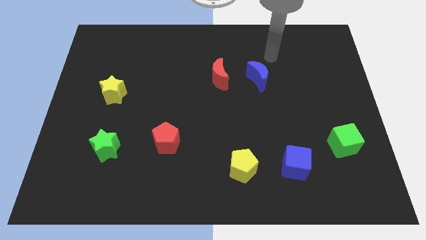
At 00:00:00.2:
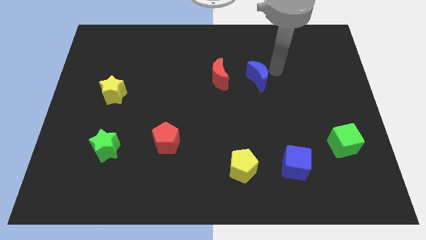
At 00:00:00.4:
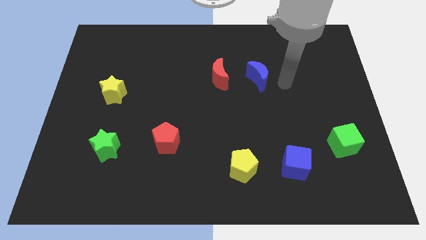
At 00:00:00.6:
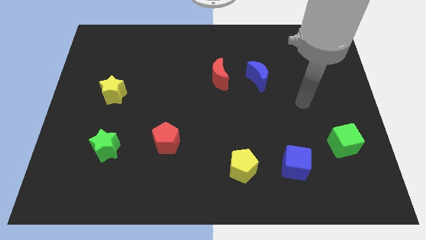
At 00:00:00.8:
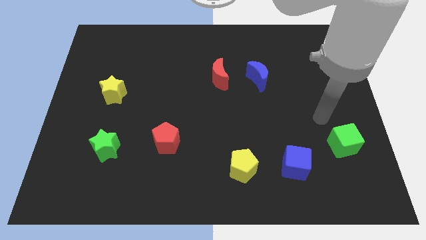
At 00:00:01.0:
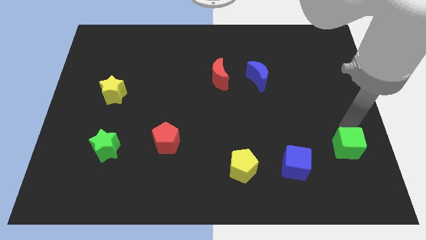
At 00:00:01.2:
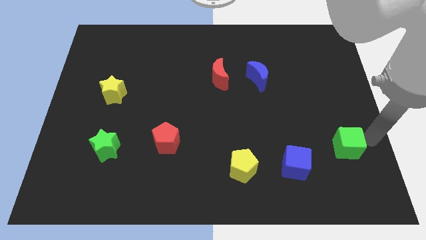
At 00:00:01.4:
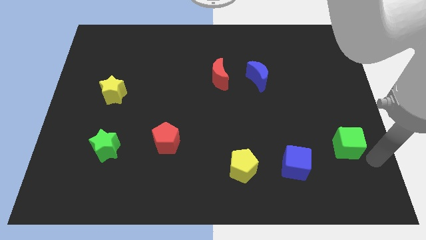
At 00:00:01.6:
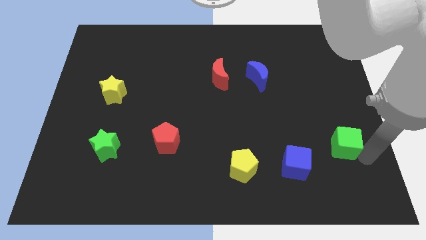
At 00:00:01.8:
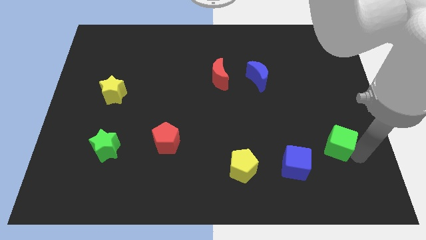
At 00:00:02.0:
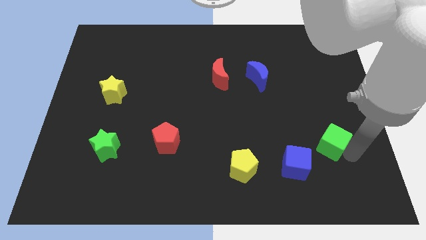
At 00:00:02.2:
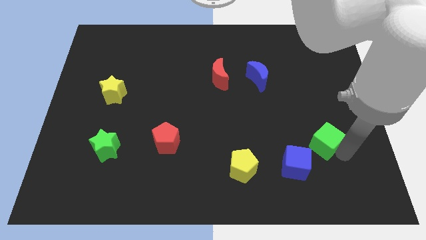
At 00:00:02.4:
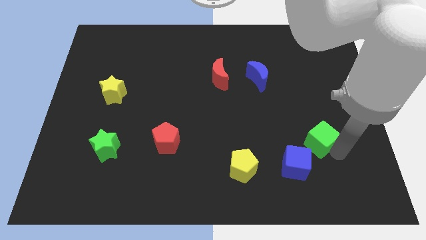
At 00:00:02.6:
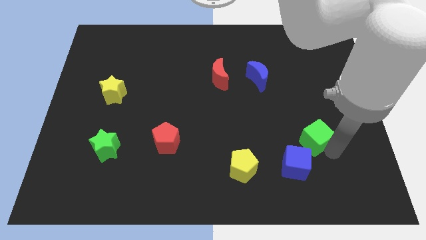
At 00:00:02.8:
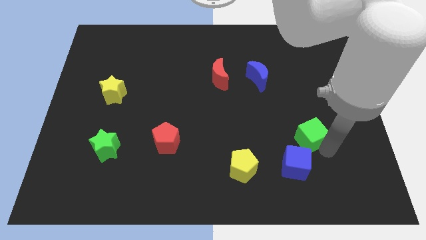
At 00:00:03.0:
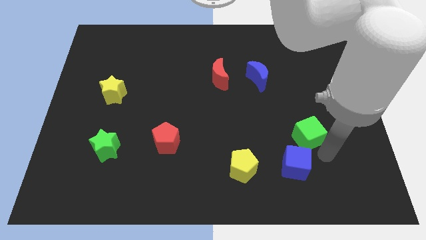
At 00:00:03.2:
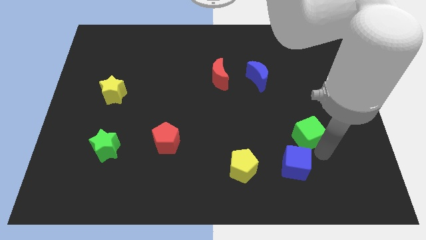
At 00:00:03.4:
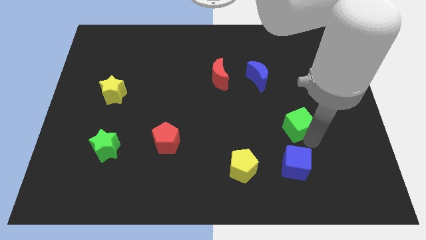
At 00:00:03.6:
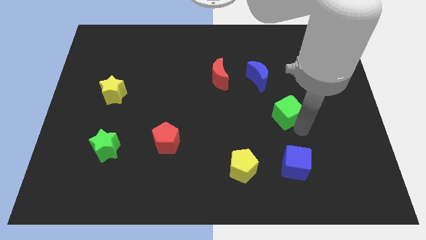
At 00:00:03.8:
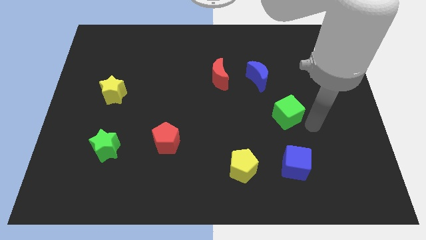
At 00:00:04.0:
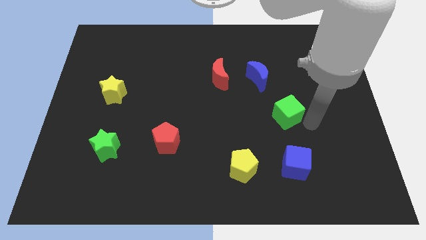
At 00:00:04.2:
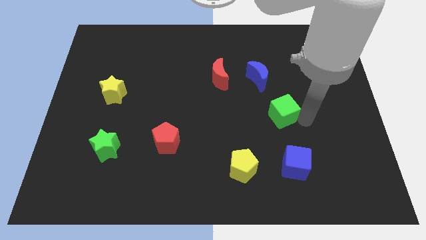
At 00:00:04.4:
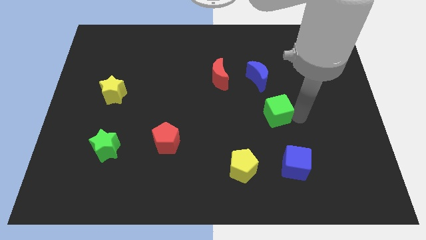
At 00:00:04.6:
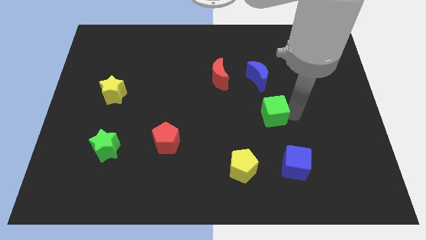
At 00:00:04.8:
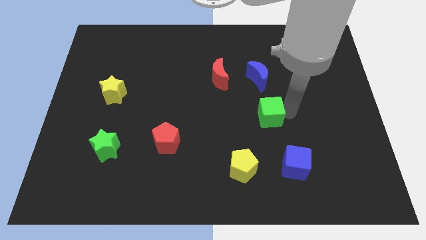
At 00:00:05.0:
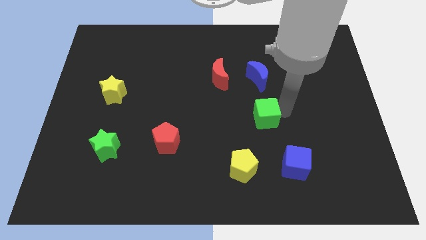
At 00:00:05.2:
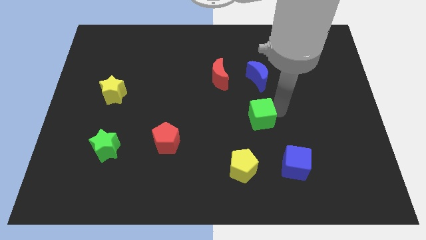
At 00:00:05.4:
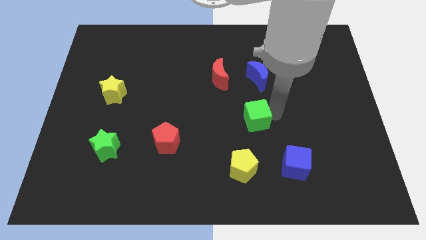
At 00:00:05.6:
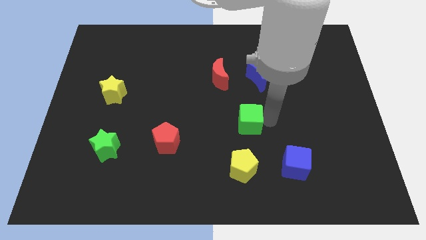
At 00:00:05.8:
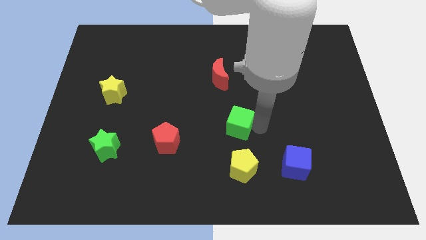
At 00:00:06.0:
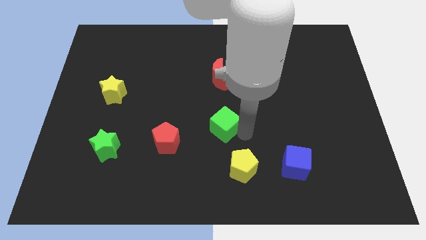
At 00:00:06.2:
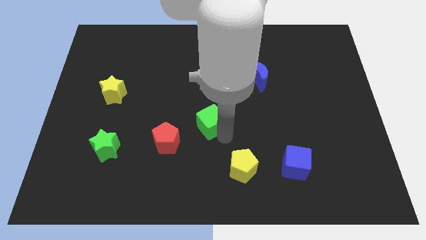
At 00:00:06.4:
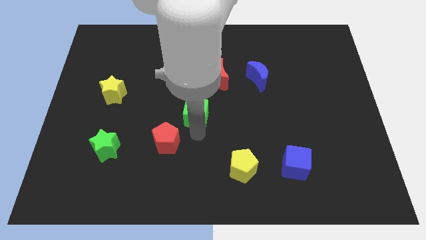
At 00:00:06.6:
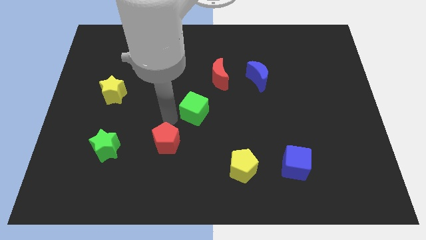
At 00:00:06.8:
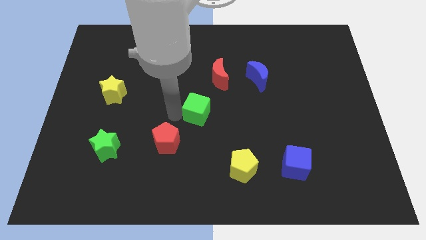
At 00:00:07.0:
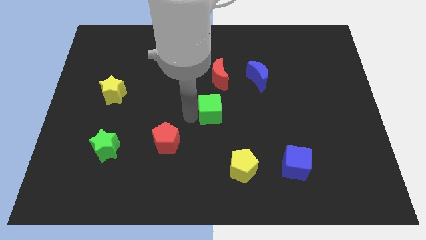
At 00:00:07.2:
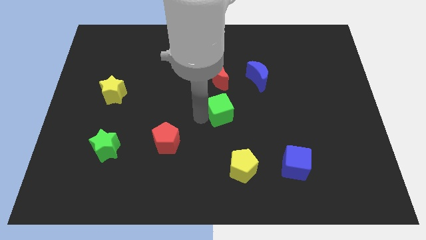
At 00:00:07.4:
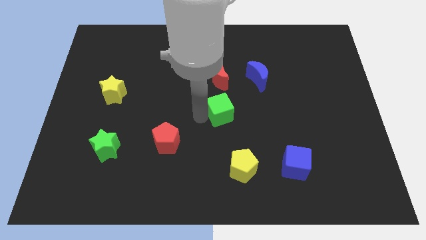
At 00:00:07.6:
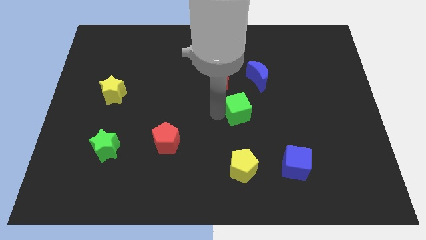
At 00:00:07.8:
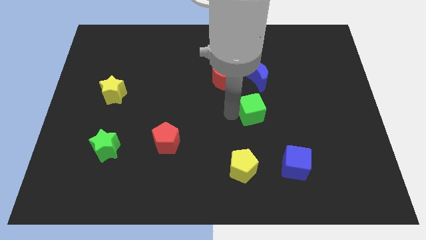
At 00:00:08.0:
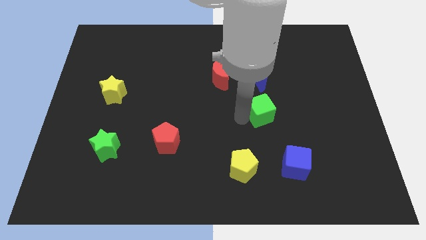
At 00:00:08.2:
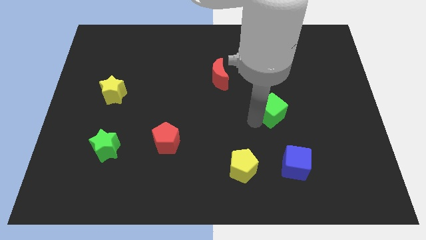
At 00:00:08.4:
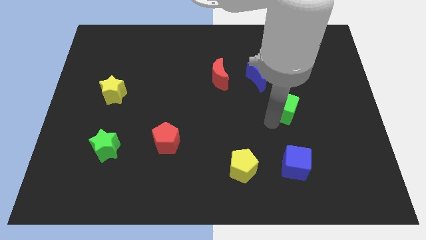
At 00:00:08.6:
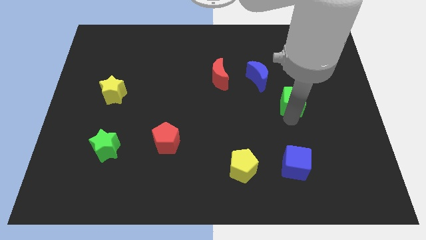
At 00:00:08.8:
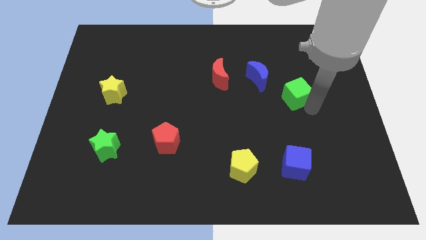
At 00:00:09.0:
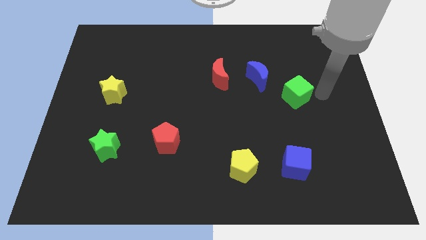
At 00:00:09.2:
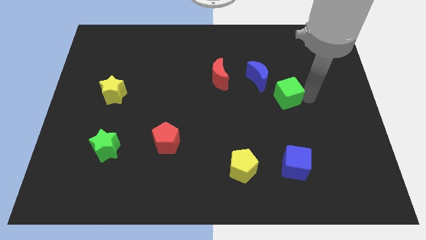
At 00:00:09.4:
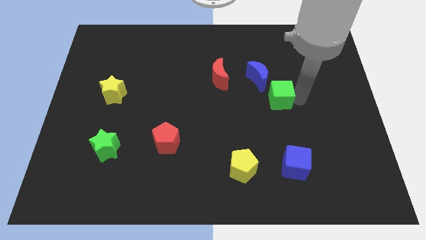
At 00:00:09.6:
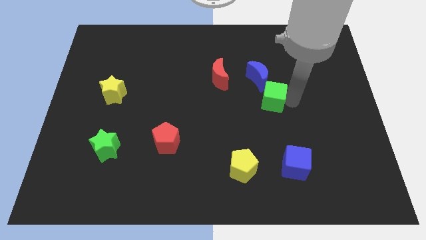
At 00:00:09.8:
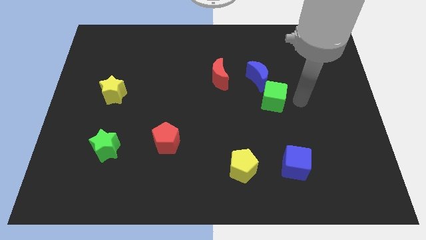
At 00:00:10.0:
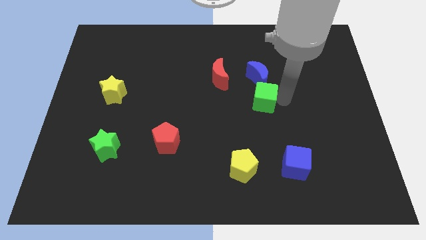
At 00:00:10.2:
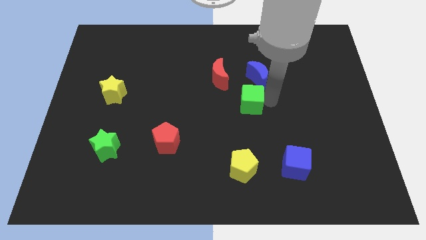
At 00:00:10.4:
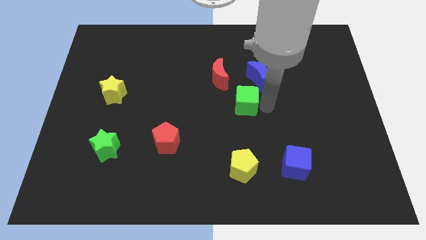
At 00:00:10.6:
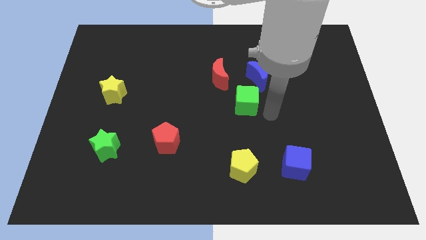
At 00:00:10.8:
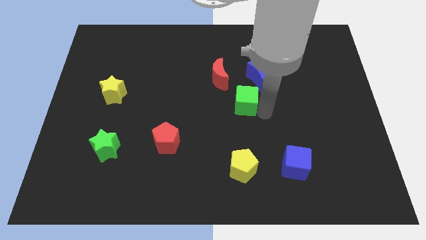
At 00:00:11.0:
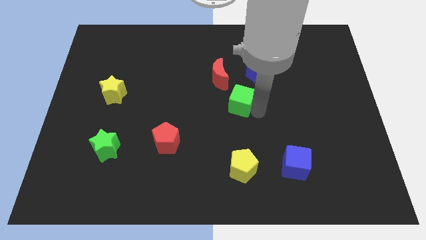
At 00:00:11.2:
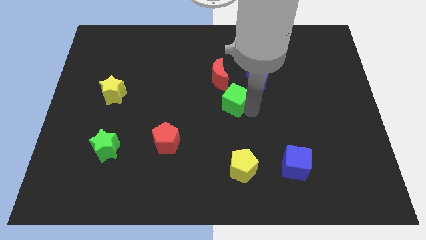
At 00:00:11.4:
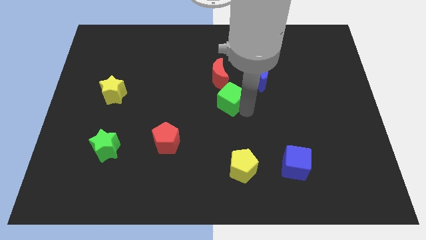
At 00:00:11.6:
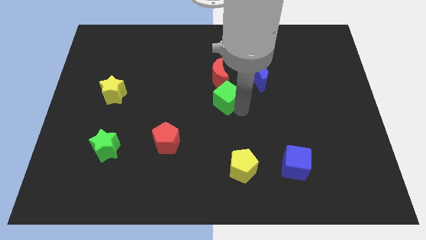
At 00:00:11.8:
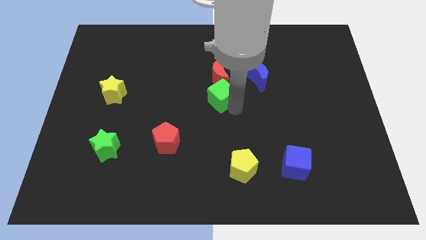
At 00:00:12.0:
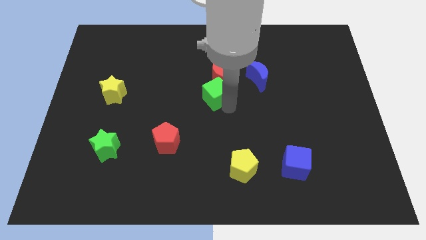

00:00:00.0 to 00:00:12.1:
push the green cube next to the red moon

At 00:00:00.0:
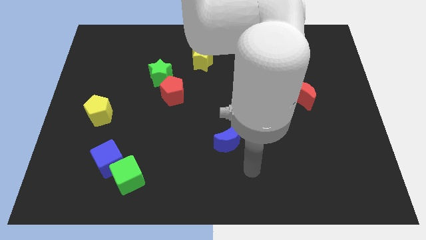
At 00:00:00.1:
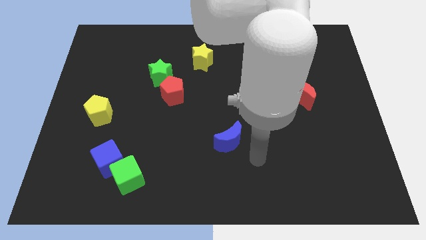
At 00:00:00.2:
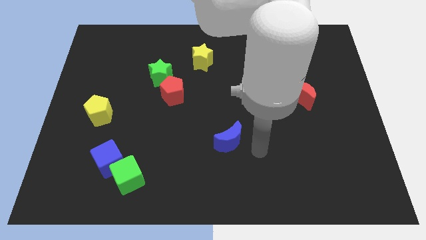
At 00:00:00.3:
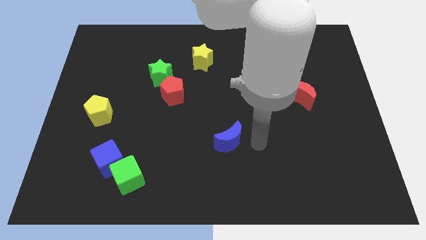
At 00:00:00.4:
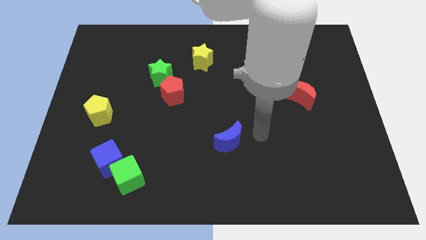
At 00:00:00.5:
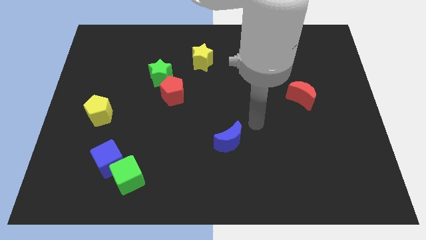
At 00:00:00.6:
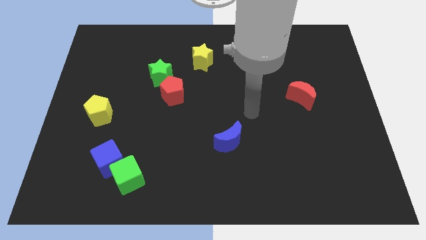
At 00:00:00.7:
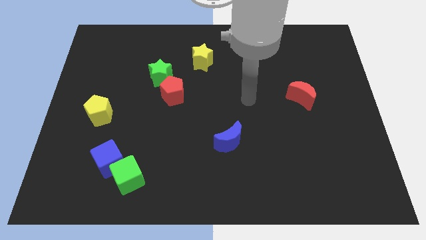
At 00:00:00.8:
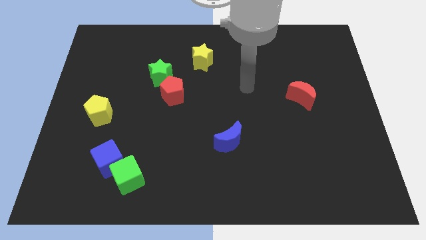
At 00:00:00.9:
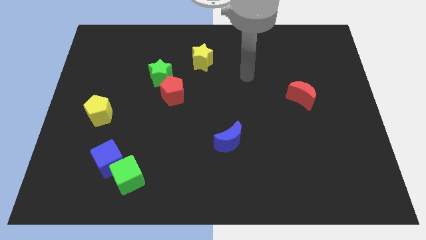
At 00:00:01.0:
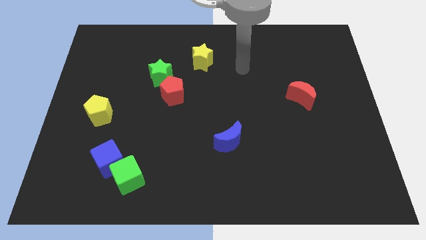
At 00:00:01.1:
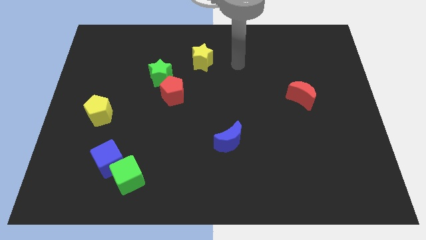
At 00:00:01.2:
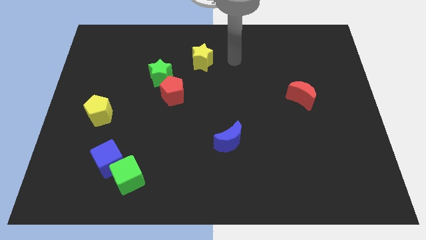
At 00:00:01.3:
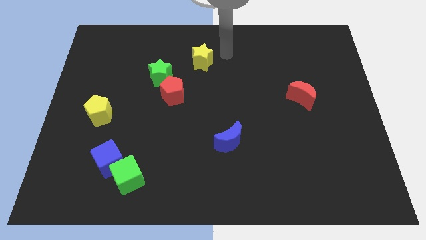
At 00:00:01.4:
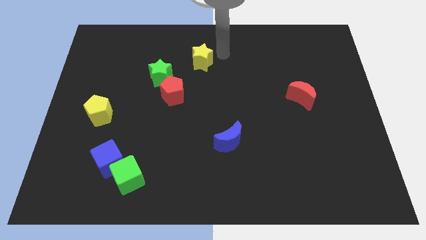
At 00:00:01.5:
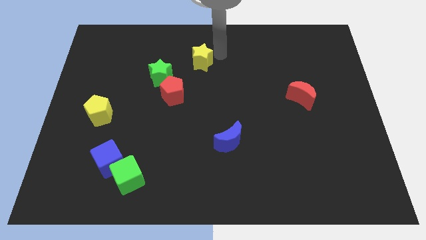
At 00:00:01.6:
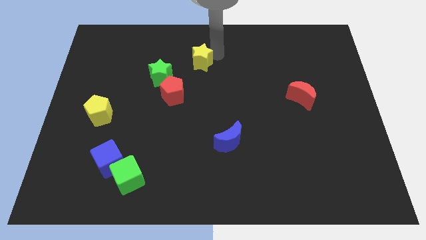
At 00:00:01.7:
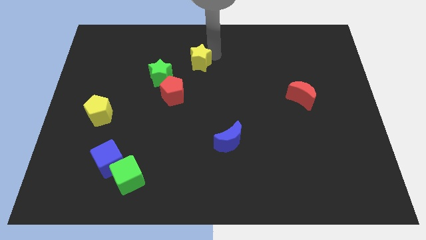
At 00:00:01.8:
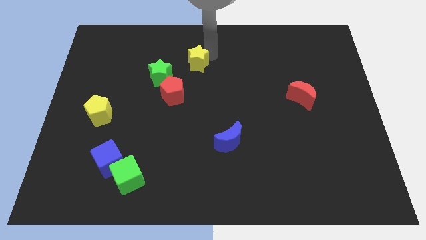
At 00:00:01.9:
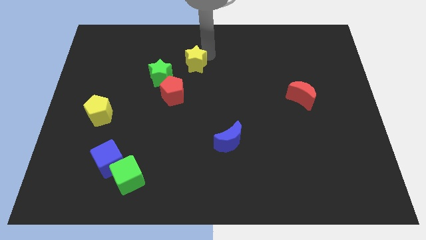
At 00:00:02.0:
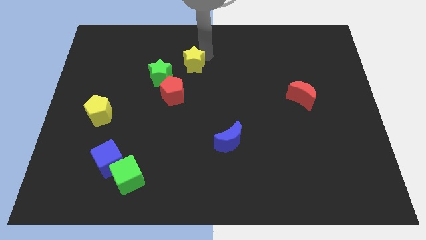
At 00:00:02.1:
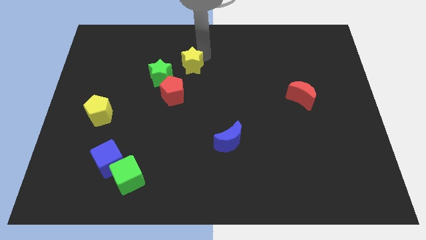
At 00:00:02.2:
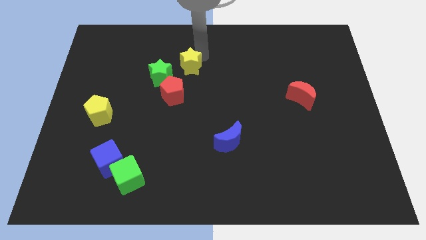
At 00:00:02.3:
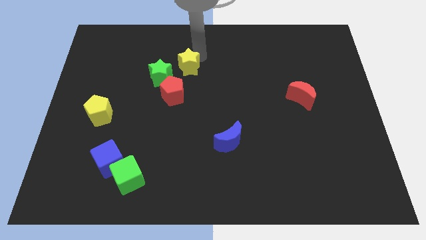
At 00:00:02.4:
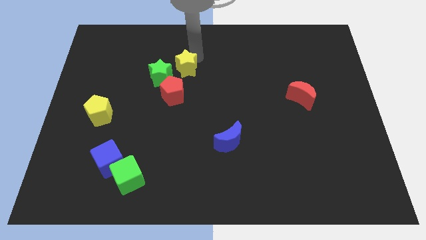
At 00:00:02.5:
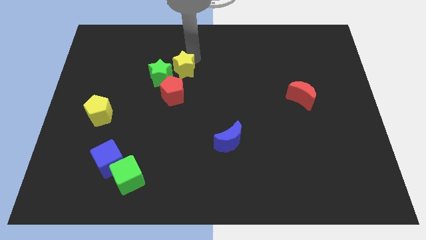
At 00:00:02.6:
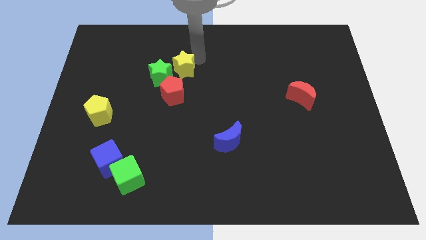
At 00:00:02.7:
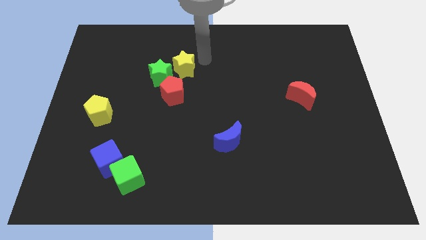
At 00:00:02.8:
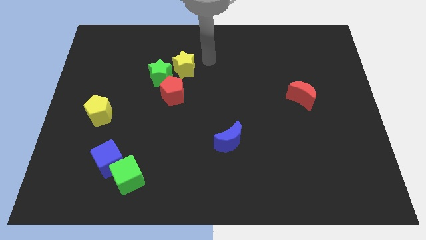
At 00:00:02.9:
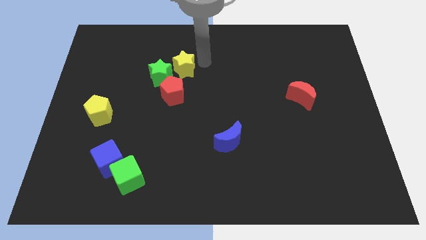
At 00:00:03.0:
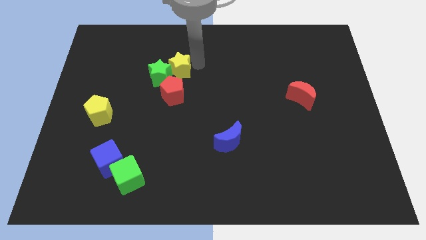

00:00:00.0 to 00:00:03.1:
push the yellow star to the green star
